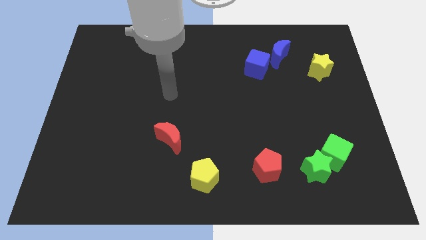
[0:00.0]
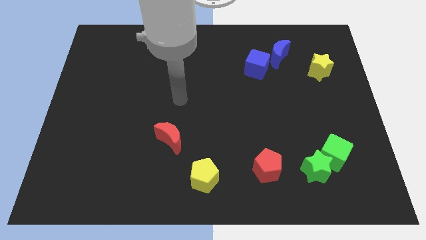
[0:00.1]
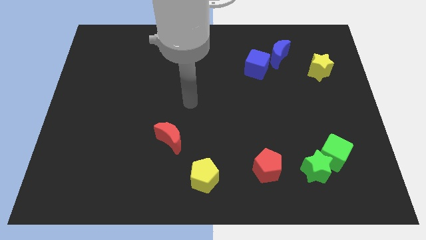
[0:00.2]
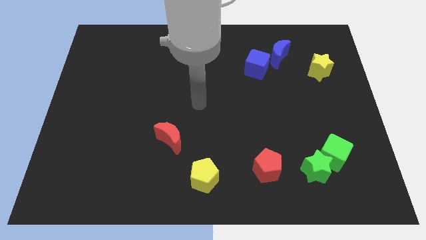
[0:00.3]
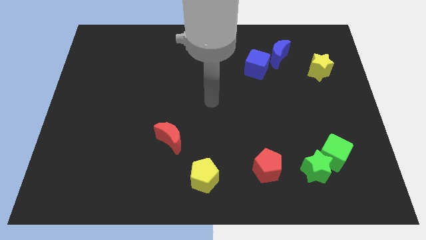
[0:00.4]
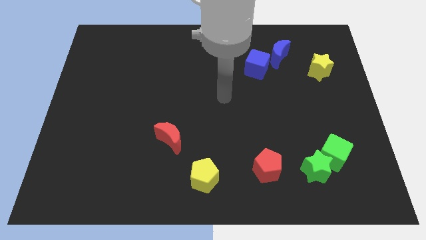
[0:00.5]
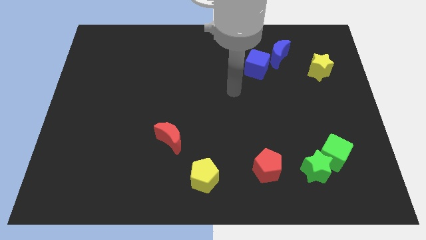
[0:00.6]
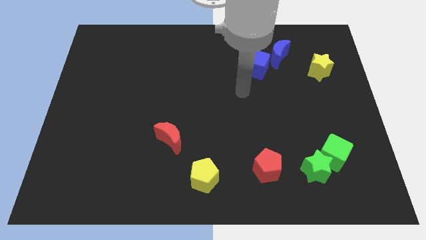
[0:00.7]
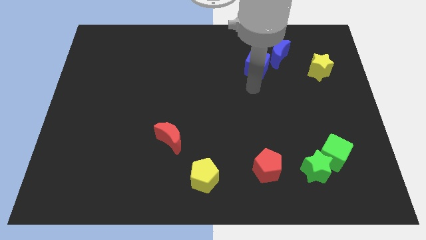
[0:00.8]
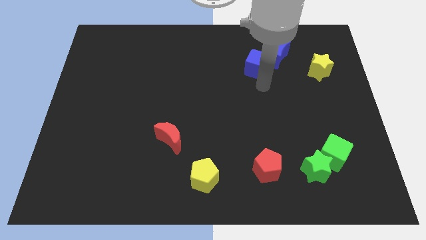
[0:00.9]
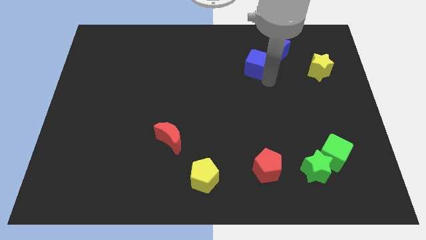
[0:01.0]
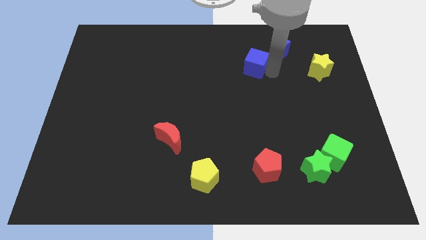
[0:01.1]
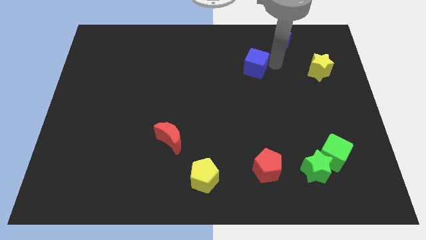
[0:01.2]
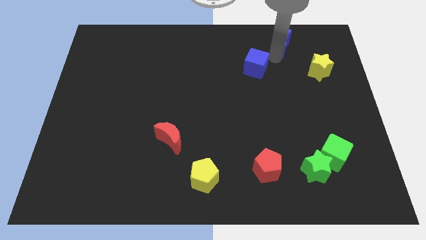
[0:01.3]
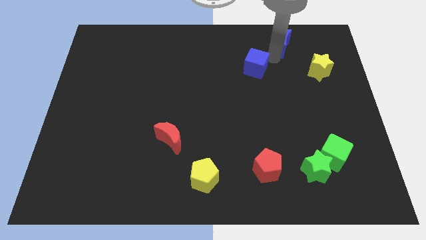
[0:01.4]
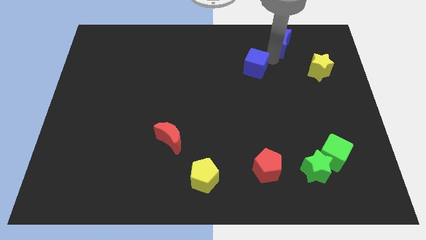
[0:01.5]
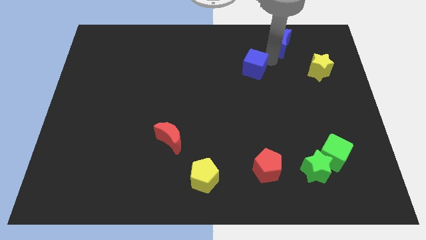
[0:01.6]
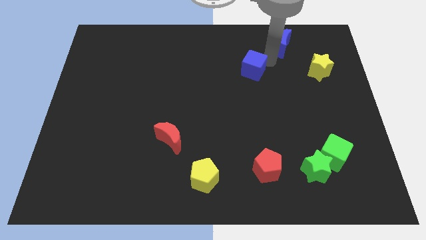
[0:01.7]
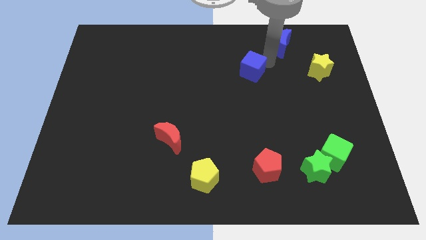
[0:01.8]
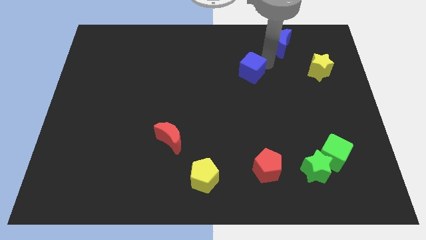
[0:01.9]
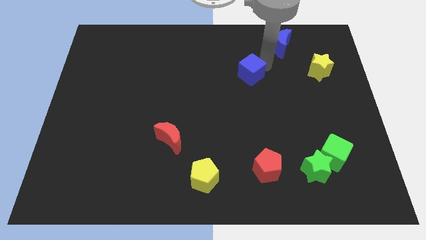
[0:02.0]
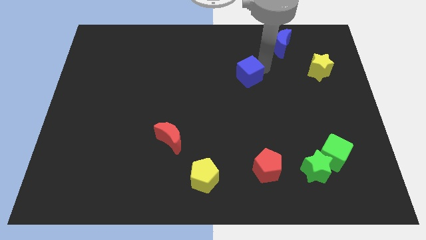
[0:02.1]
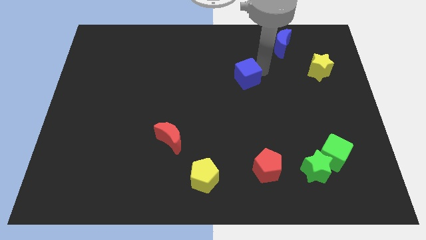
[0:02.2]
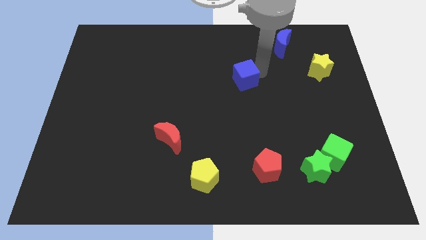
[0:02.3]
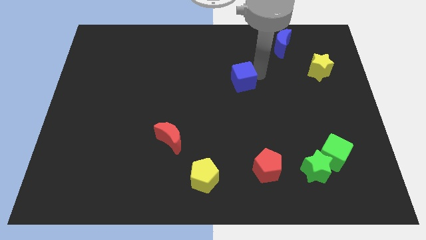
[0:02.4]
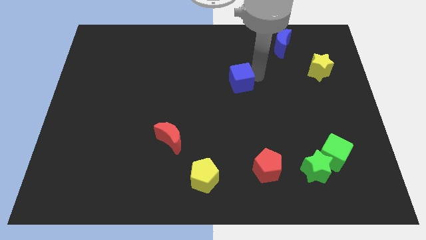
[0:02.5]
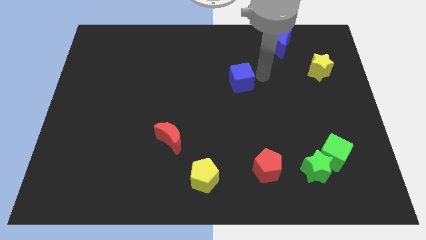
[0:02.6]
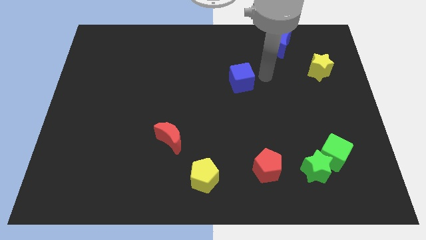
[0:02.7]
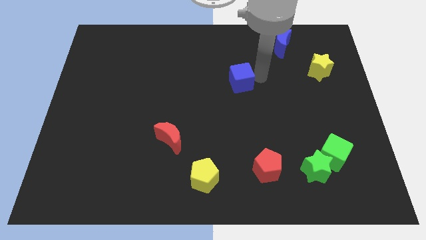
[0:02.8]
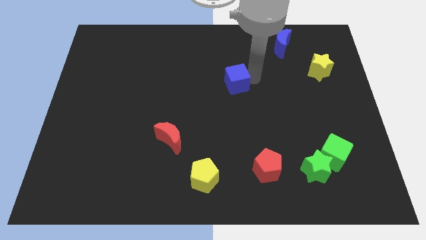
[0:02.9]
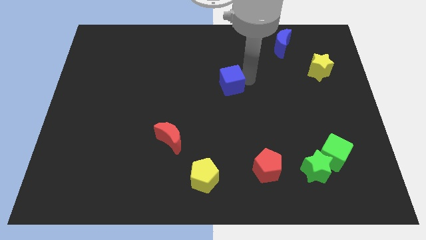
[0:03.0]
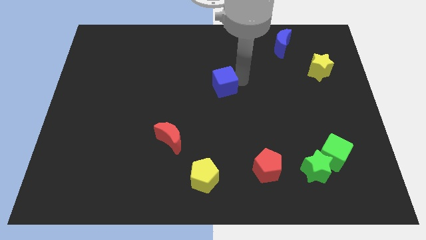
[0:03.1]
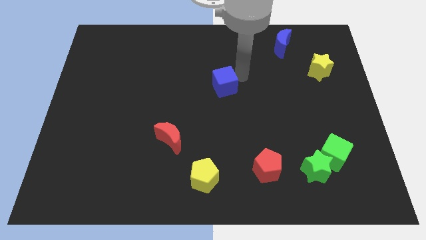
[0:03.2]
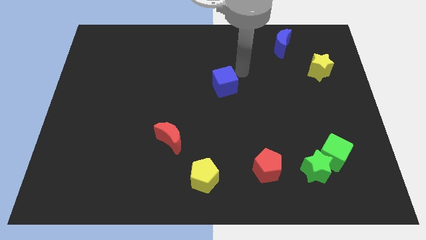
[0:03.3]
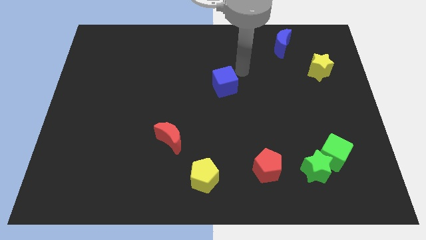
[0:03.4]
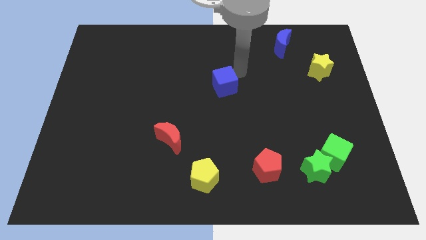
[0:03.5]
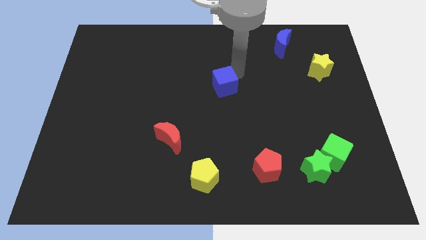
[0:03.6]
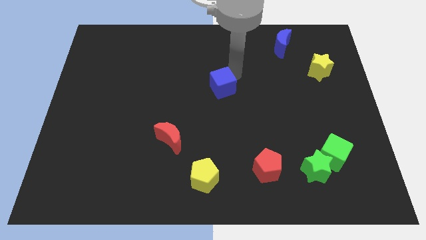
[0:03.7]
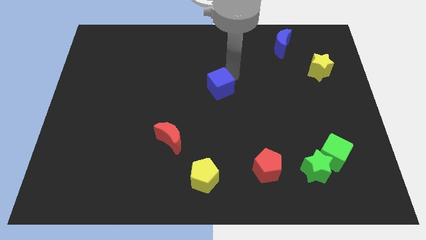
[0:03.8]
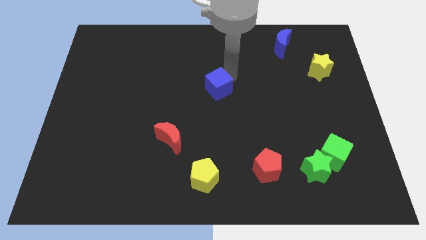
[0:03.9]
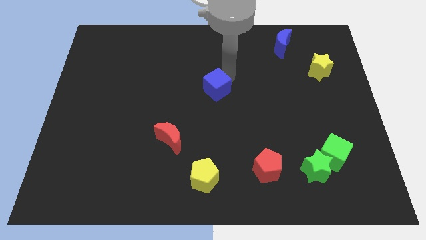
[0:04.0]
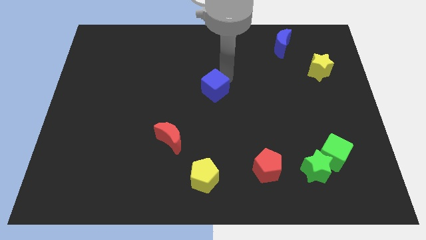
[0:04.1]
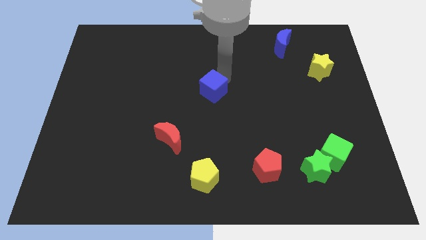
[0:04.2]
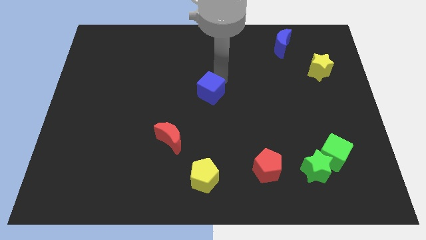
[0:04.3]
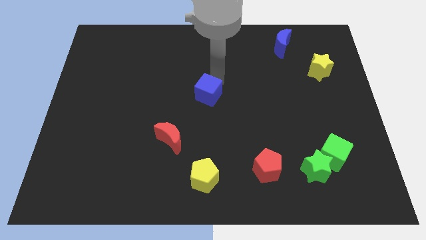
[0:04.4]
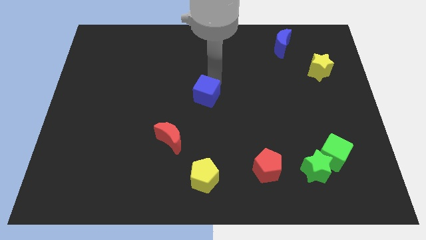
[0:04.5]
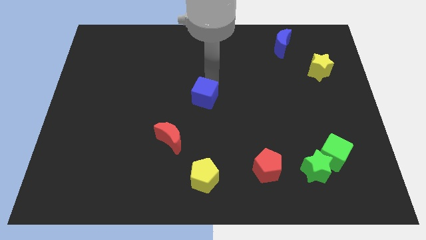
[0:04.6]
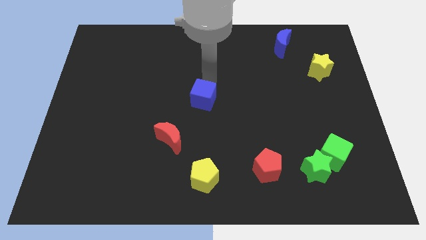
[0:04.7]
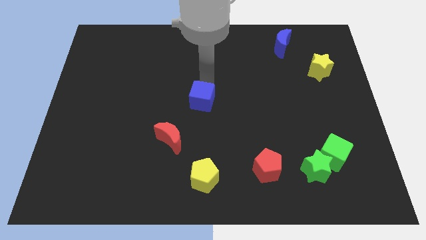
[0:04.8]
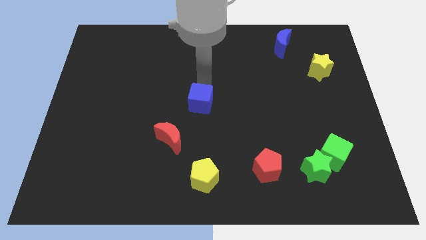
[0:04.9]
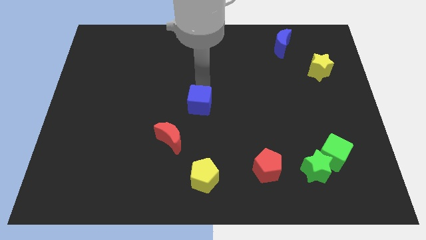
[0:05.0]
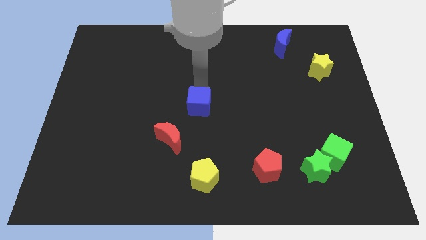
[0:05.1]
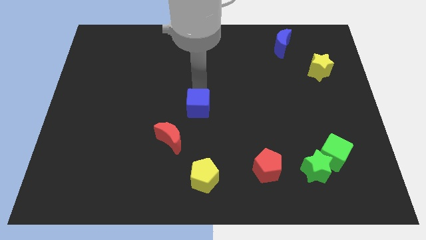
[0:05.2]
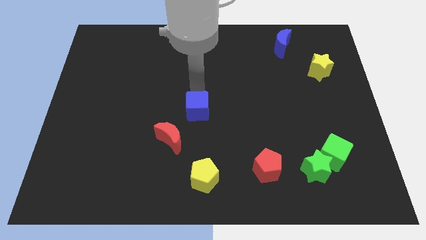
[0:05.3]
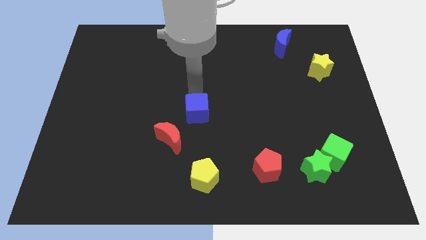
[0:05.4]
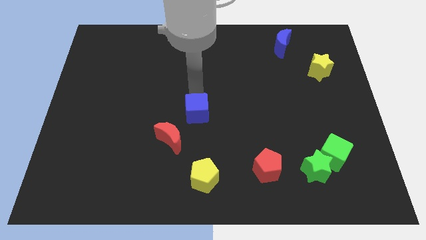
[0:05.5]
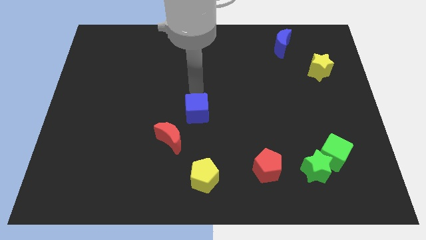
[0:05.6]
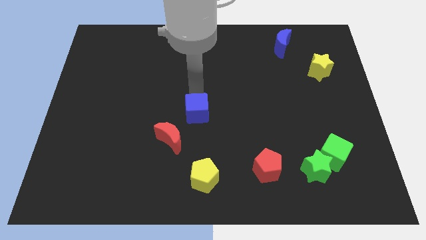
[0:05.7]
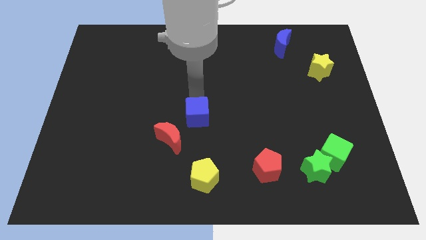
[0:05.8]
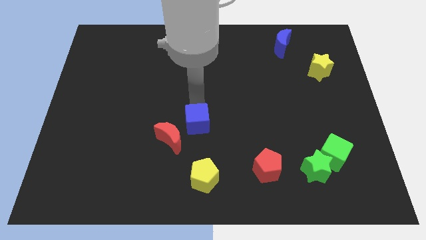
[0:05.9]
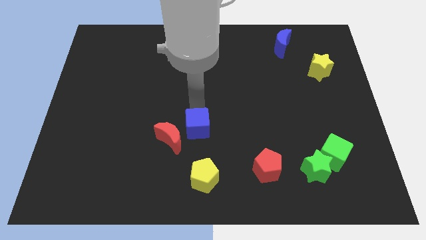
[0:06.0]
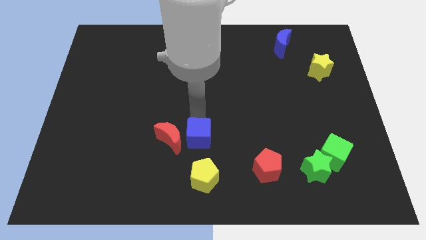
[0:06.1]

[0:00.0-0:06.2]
slide the blue cube to the bottom right side of the red moon

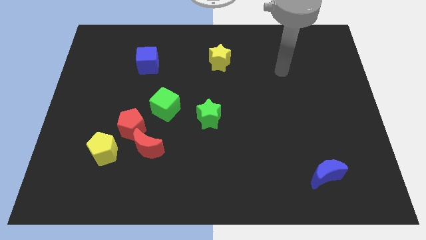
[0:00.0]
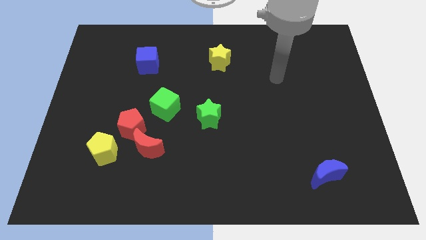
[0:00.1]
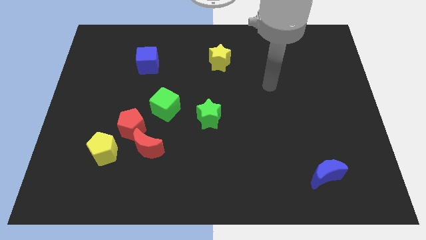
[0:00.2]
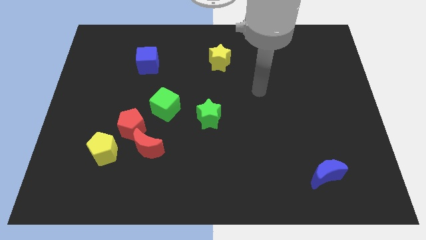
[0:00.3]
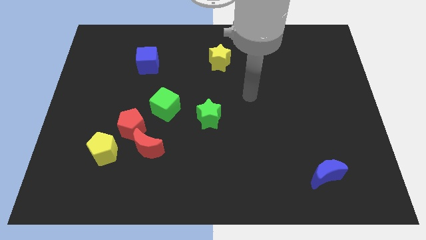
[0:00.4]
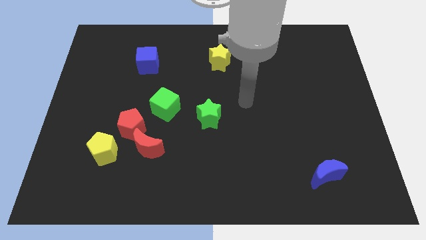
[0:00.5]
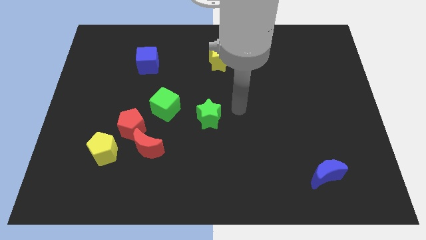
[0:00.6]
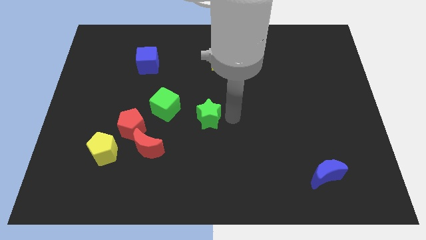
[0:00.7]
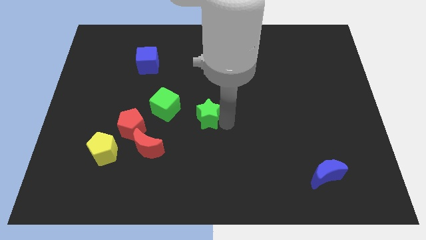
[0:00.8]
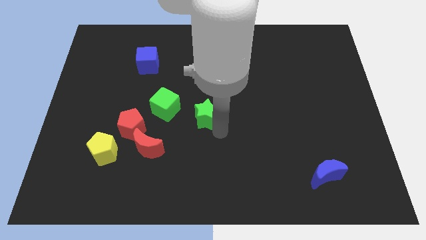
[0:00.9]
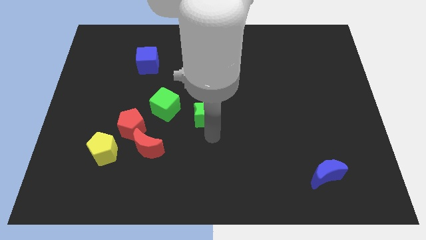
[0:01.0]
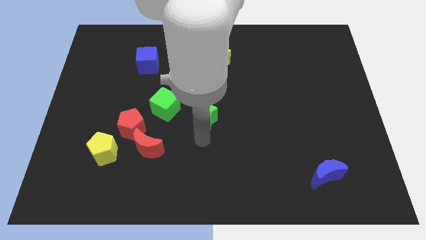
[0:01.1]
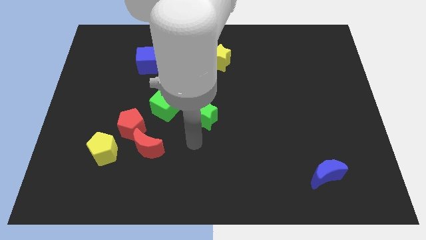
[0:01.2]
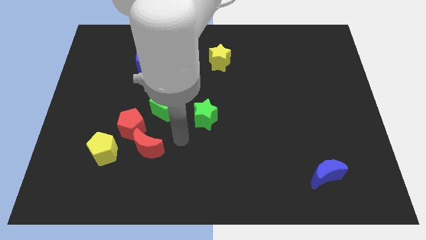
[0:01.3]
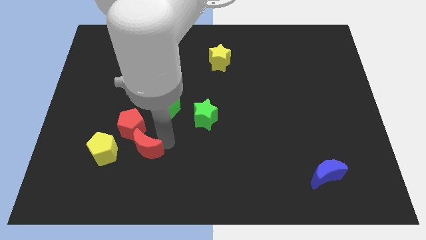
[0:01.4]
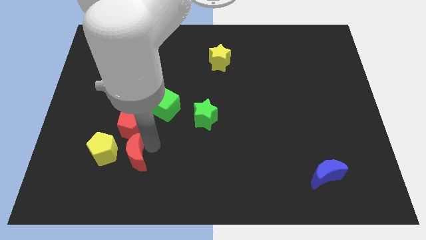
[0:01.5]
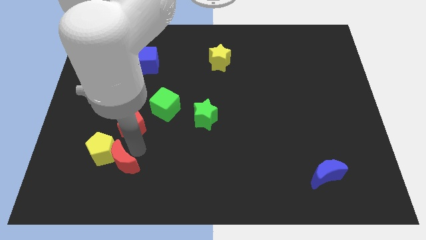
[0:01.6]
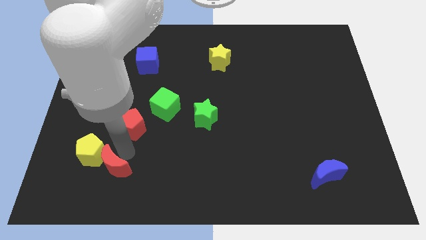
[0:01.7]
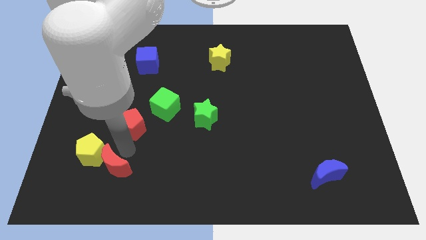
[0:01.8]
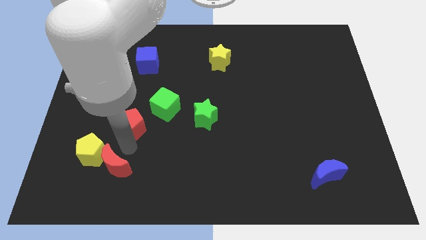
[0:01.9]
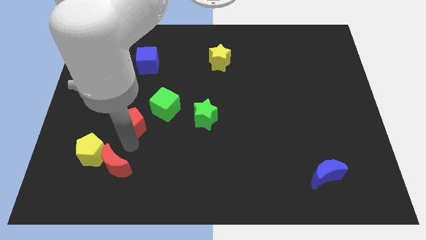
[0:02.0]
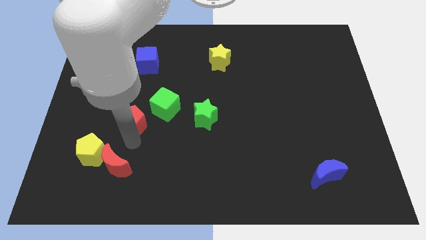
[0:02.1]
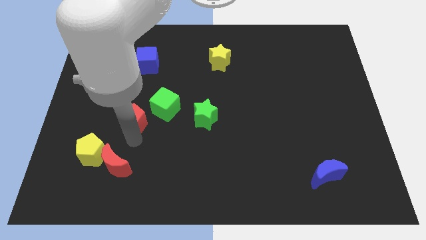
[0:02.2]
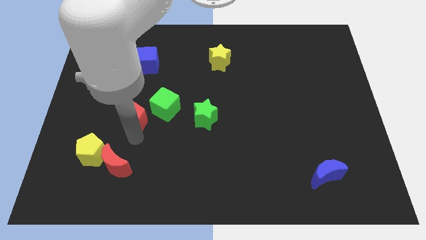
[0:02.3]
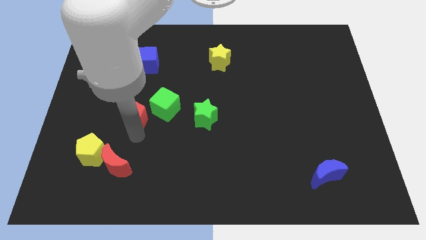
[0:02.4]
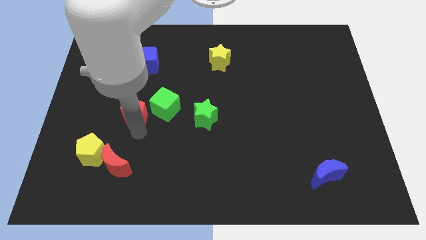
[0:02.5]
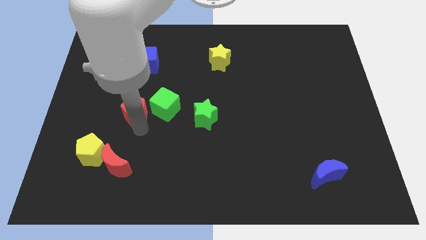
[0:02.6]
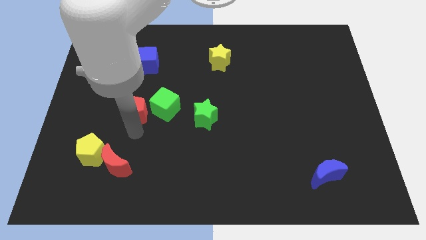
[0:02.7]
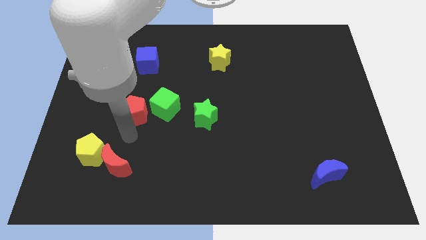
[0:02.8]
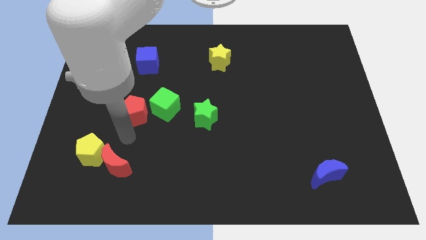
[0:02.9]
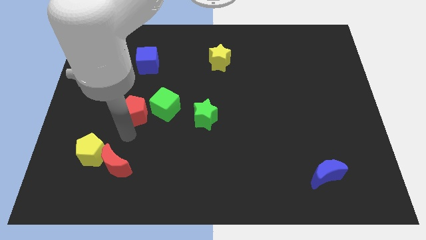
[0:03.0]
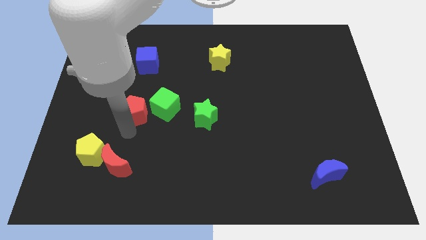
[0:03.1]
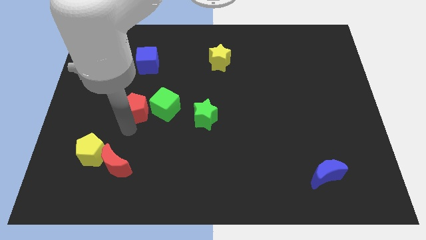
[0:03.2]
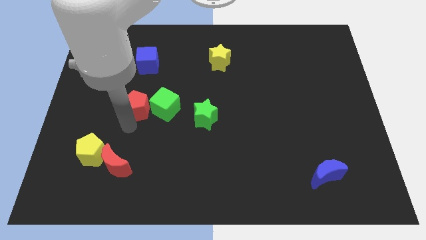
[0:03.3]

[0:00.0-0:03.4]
put the red pentagon diagonally up and to the left of the green cube
